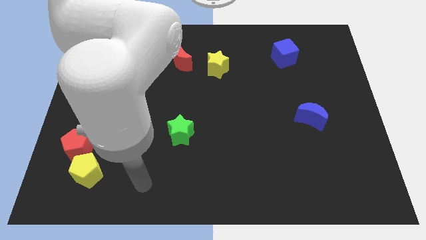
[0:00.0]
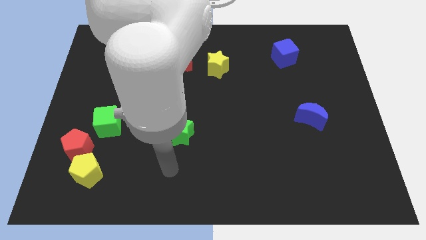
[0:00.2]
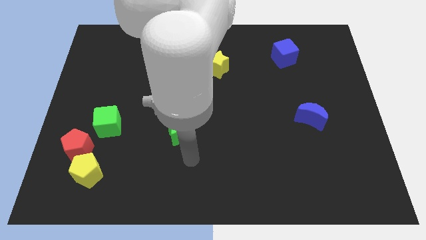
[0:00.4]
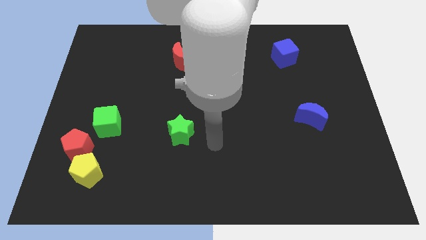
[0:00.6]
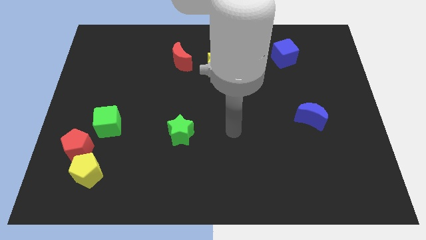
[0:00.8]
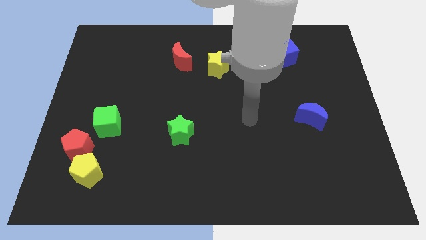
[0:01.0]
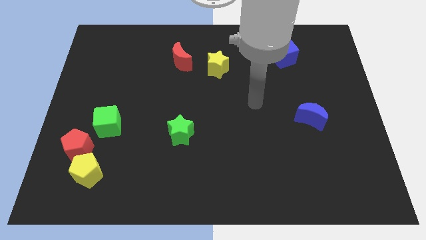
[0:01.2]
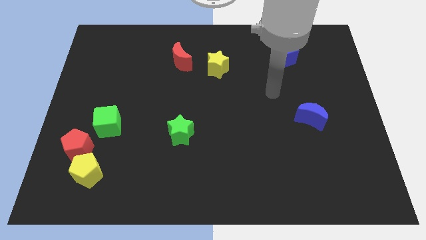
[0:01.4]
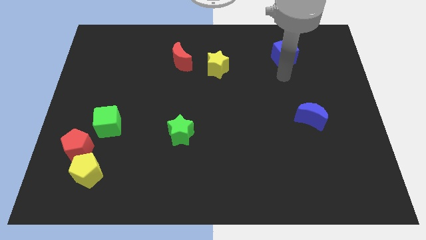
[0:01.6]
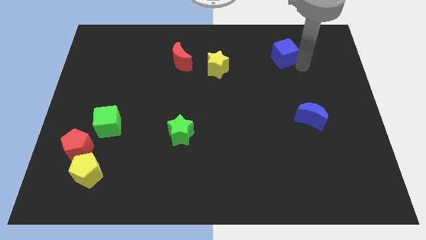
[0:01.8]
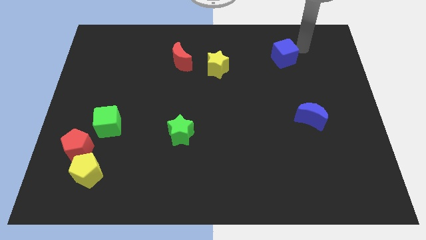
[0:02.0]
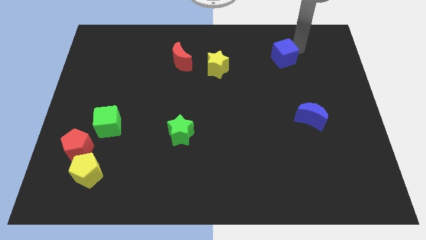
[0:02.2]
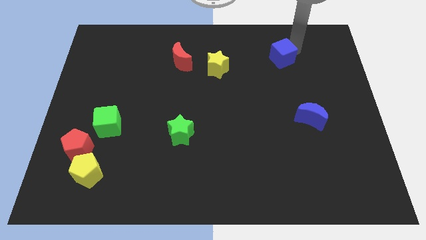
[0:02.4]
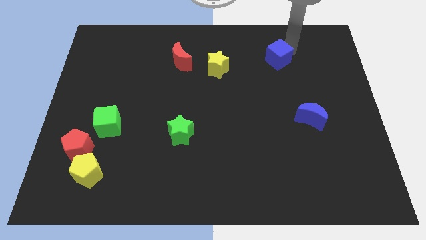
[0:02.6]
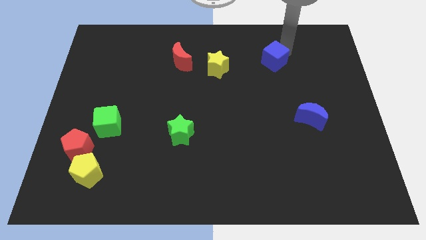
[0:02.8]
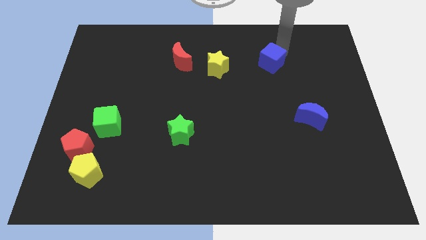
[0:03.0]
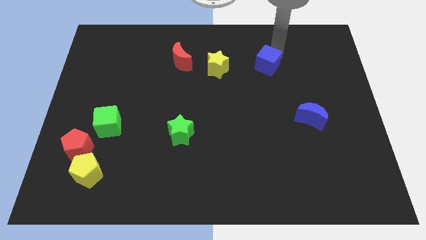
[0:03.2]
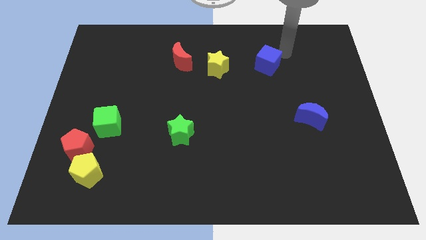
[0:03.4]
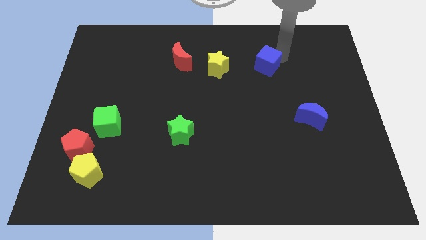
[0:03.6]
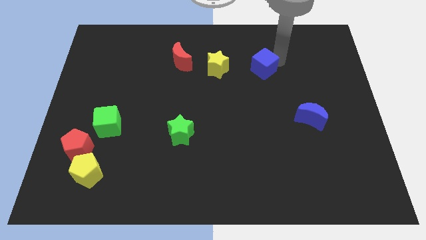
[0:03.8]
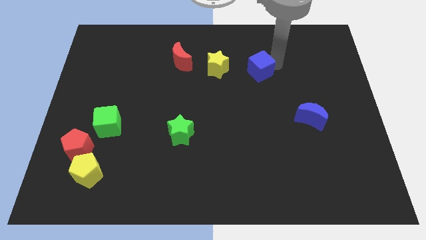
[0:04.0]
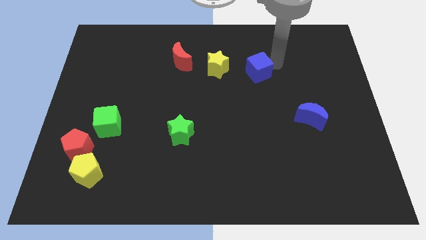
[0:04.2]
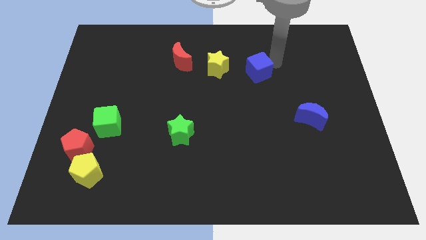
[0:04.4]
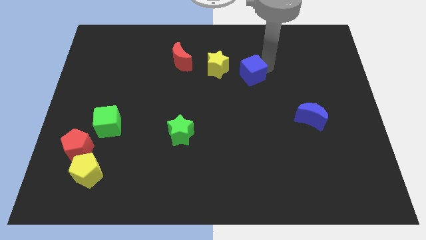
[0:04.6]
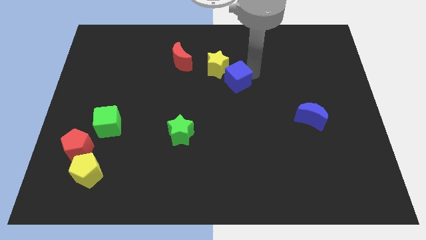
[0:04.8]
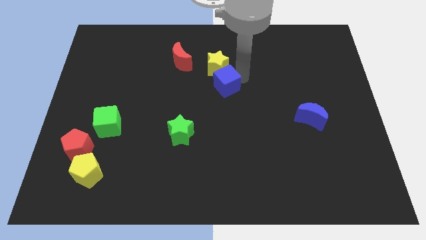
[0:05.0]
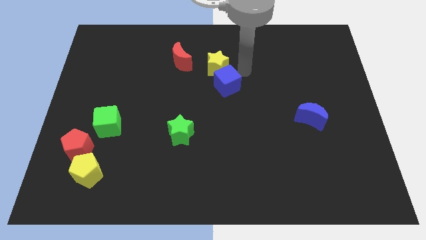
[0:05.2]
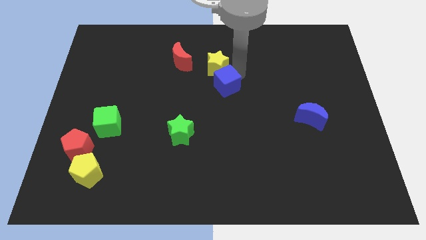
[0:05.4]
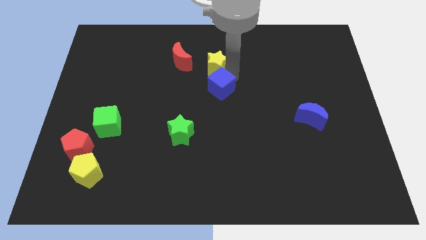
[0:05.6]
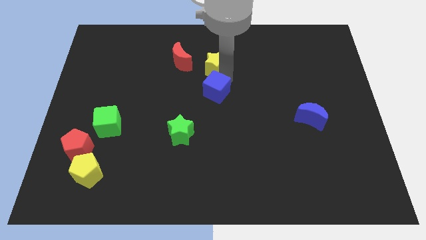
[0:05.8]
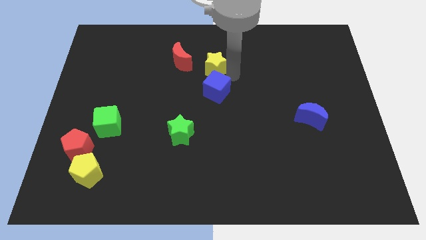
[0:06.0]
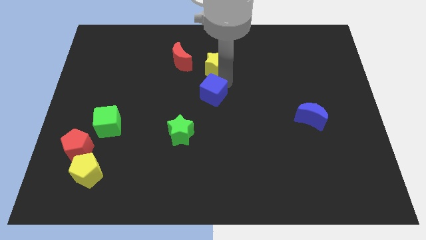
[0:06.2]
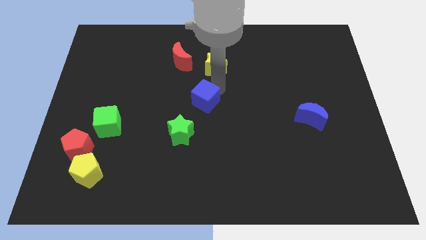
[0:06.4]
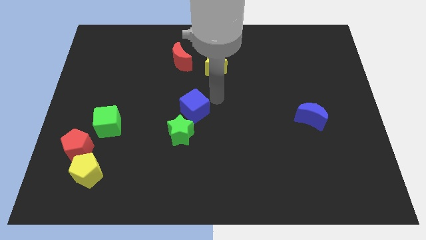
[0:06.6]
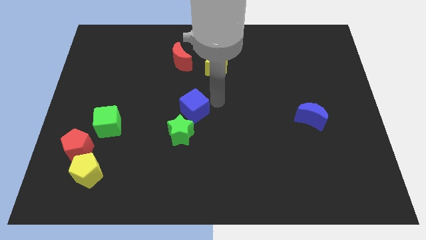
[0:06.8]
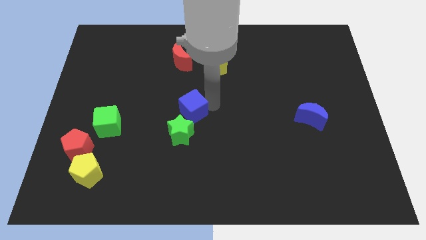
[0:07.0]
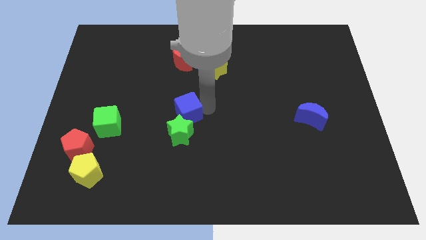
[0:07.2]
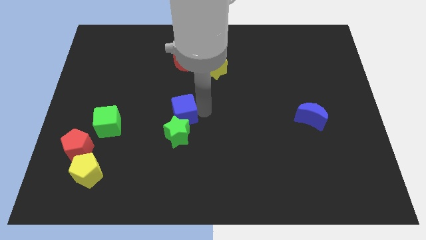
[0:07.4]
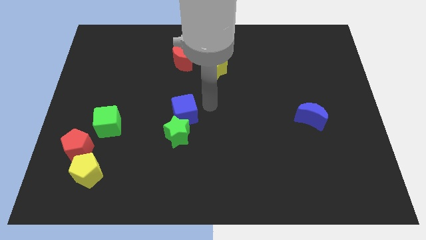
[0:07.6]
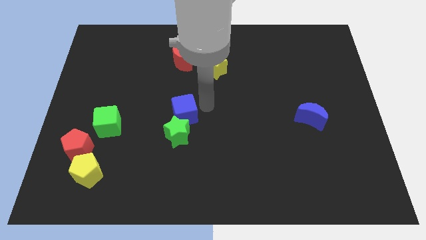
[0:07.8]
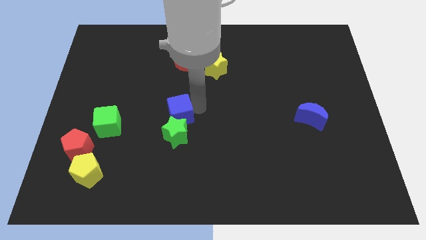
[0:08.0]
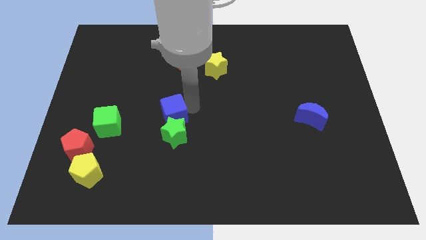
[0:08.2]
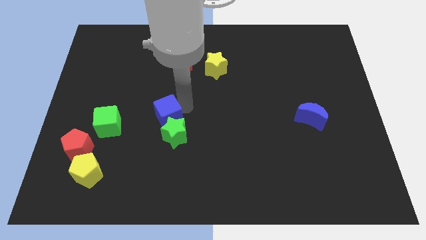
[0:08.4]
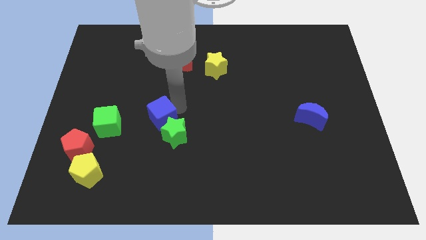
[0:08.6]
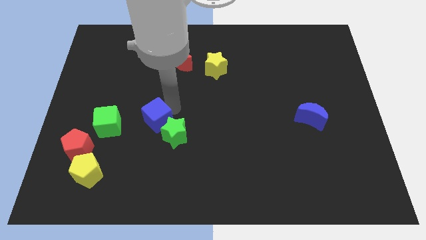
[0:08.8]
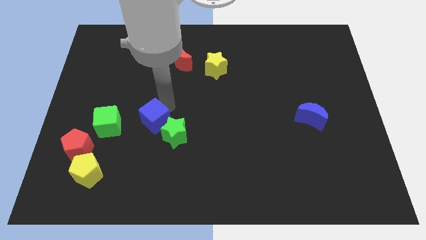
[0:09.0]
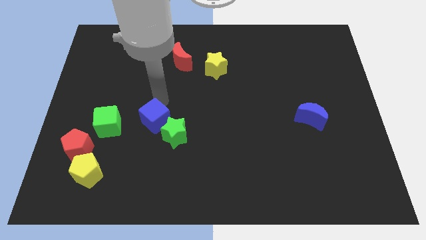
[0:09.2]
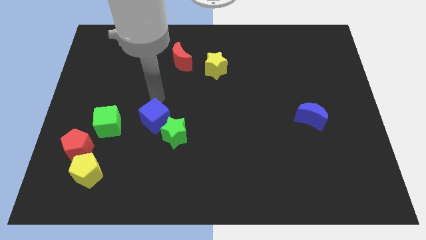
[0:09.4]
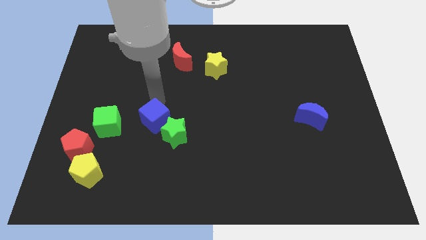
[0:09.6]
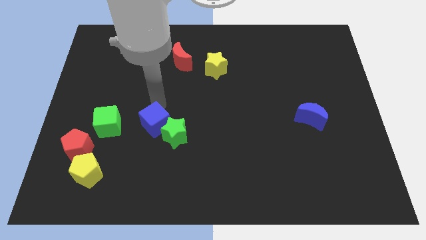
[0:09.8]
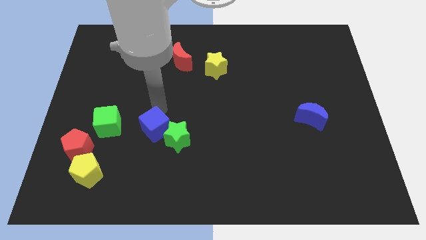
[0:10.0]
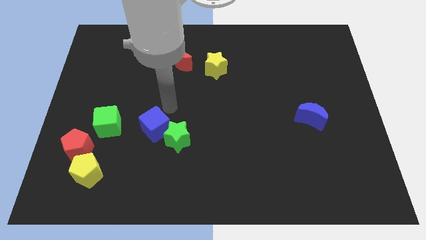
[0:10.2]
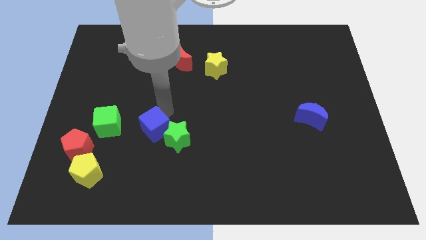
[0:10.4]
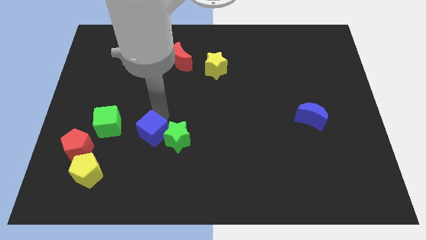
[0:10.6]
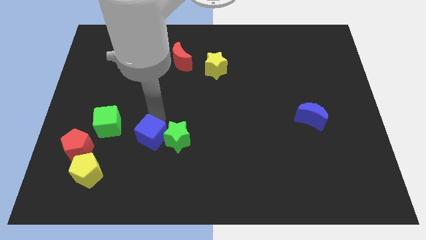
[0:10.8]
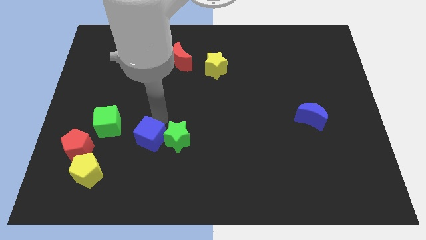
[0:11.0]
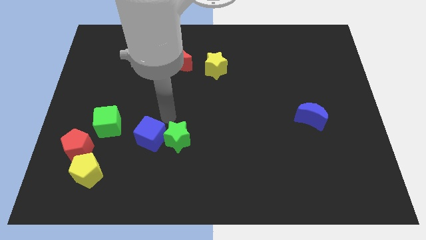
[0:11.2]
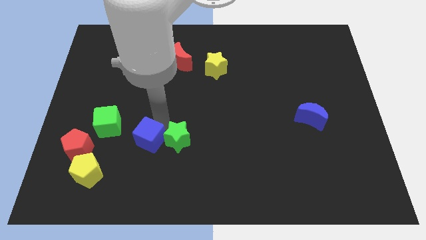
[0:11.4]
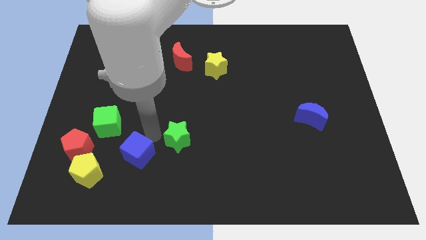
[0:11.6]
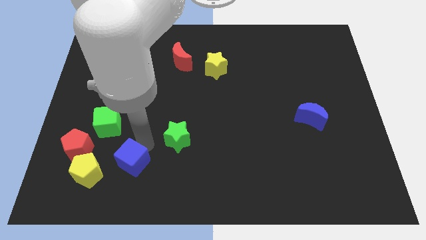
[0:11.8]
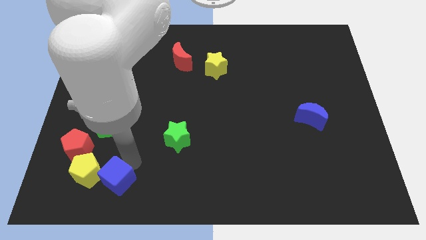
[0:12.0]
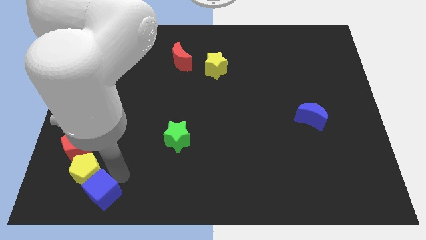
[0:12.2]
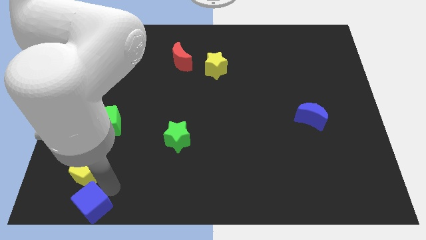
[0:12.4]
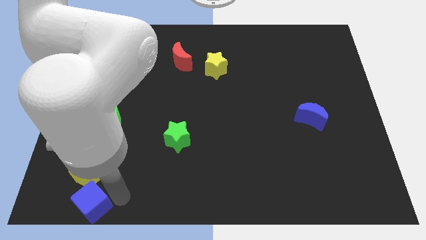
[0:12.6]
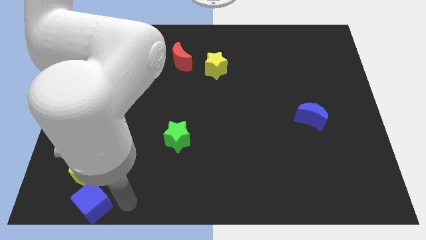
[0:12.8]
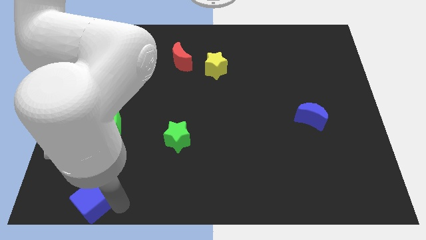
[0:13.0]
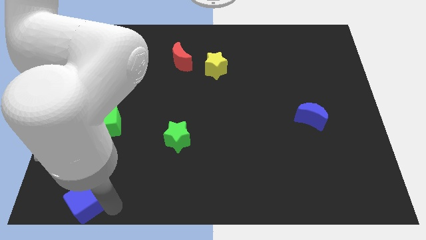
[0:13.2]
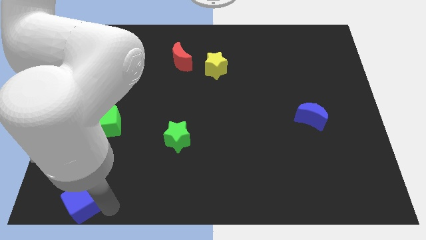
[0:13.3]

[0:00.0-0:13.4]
move the blue cube to the bottom left corner

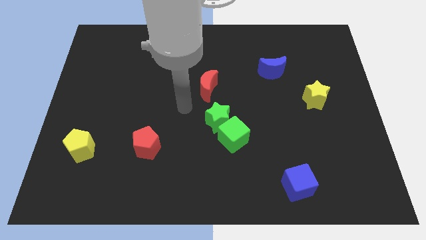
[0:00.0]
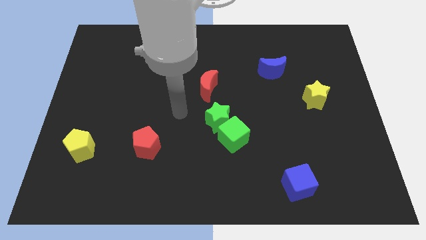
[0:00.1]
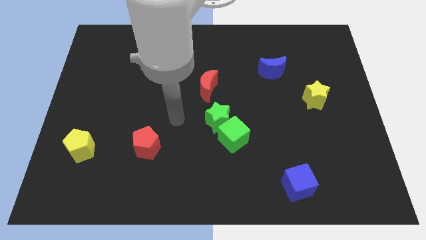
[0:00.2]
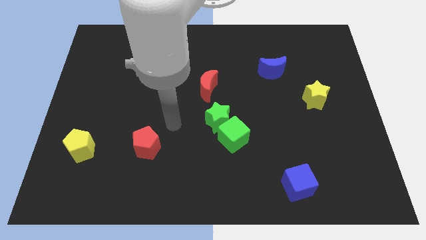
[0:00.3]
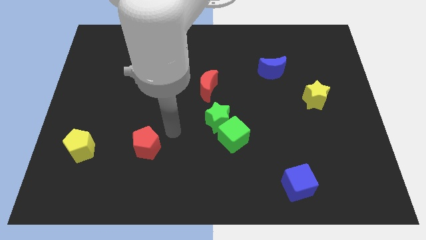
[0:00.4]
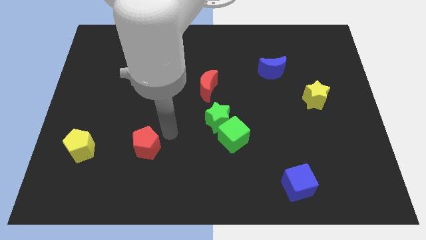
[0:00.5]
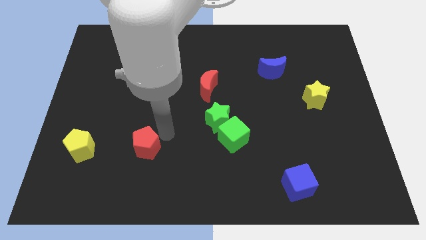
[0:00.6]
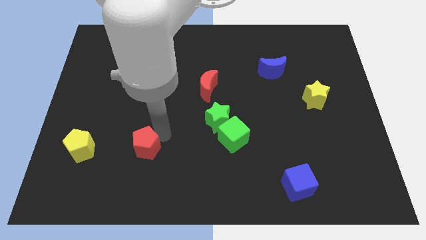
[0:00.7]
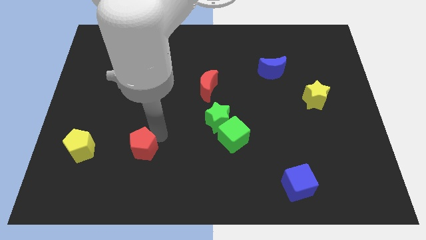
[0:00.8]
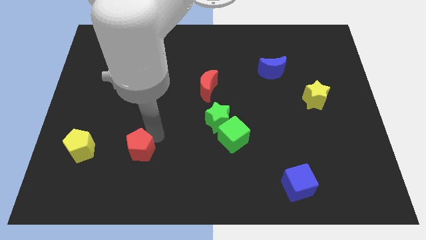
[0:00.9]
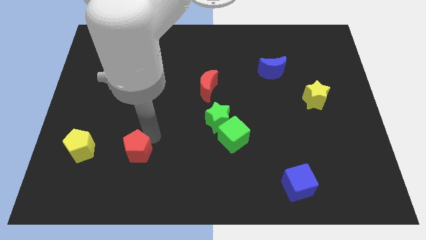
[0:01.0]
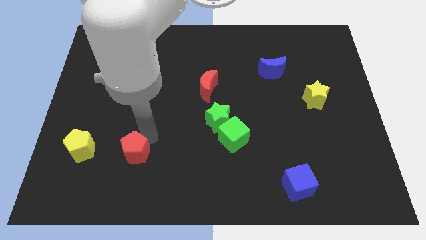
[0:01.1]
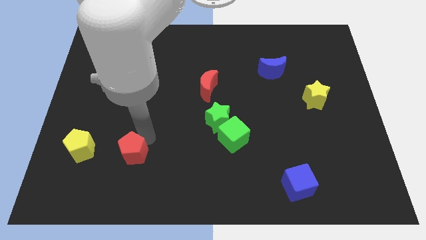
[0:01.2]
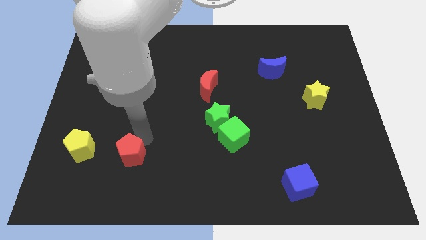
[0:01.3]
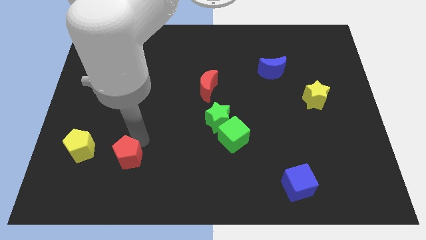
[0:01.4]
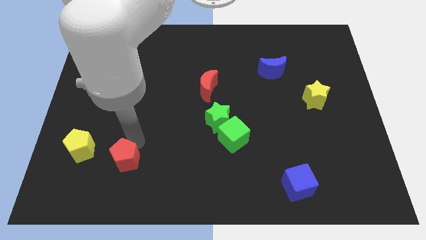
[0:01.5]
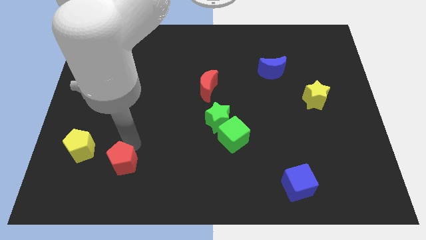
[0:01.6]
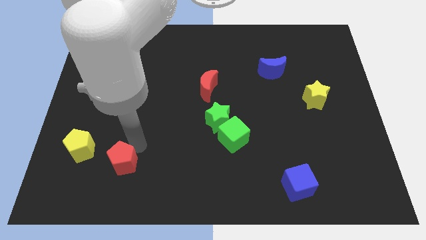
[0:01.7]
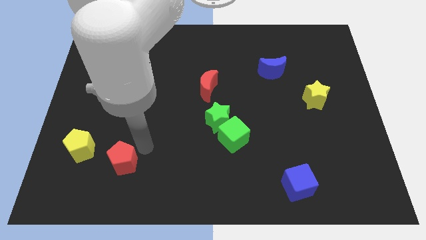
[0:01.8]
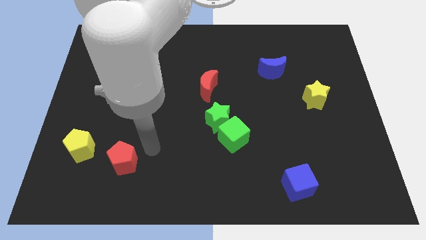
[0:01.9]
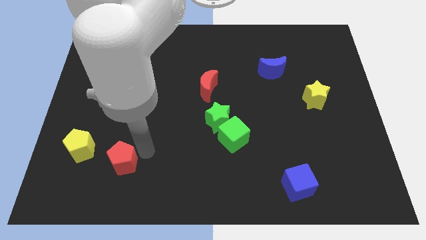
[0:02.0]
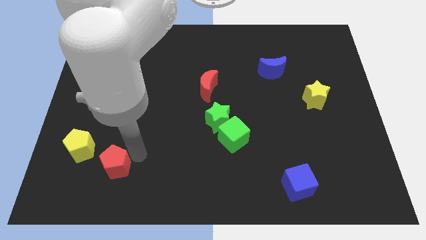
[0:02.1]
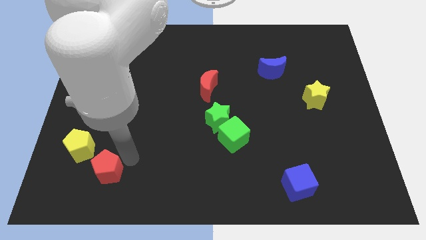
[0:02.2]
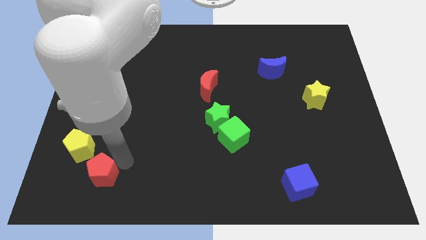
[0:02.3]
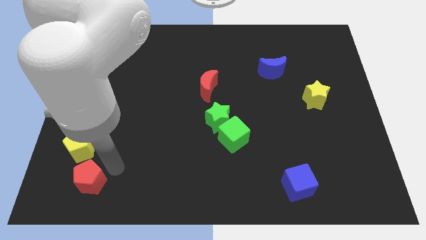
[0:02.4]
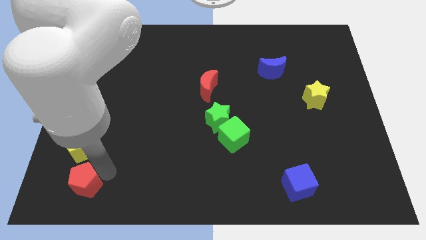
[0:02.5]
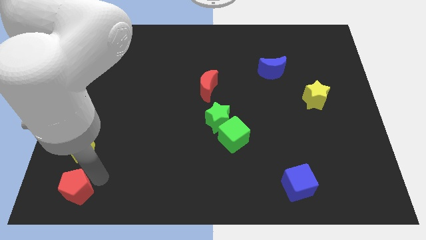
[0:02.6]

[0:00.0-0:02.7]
move the red pentagon to the bottom left corner
